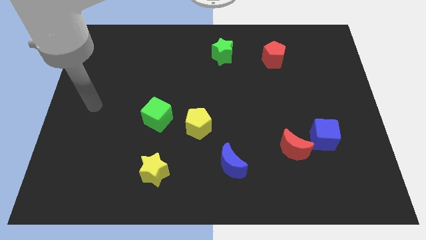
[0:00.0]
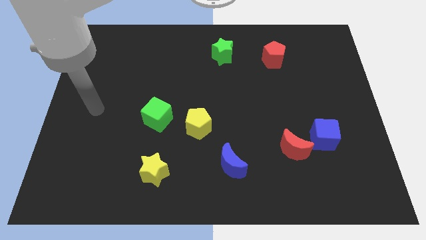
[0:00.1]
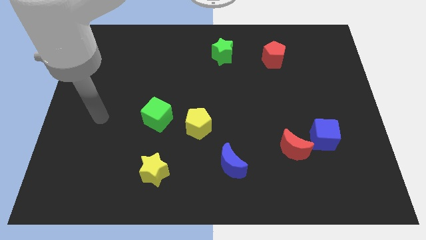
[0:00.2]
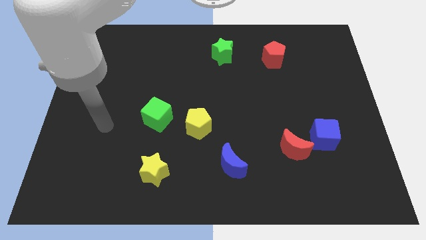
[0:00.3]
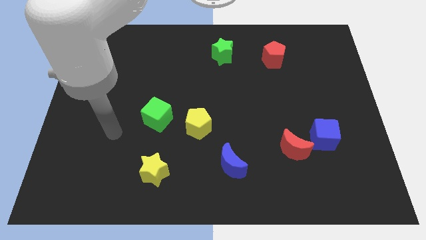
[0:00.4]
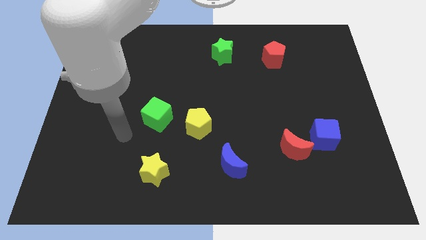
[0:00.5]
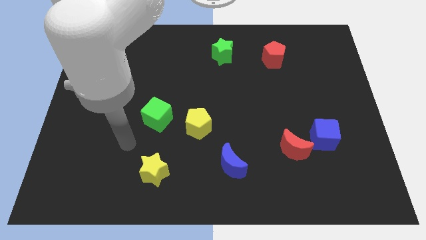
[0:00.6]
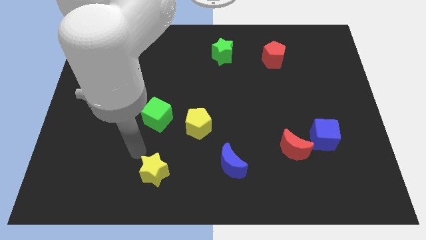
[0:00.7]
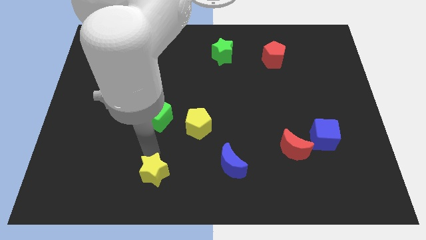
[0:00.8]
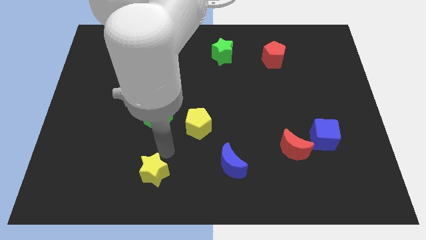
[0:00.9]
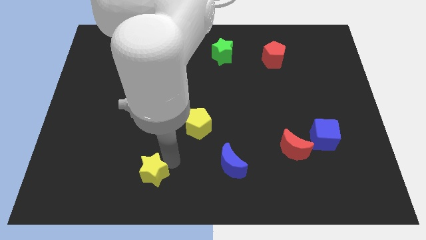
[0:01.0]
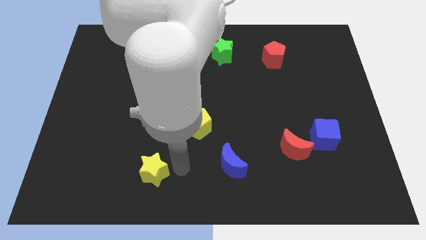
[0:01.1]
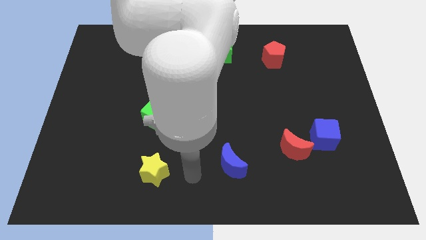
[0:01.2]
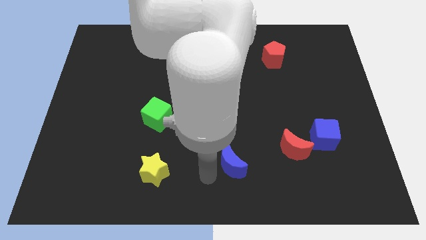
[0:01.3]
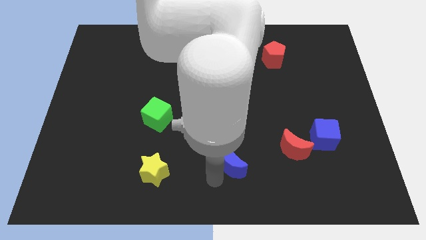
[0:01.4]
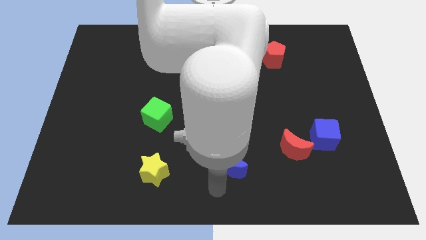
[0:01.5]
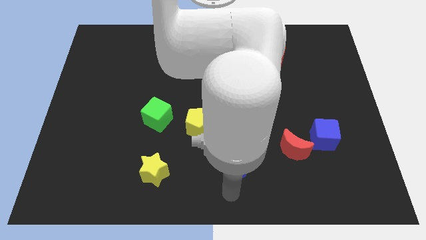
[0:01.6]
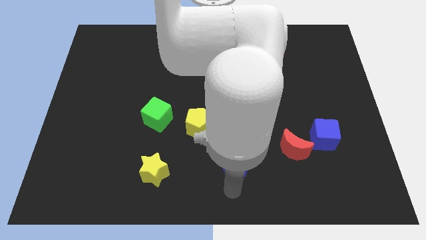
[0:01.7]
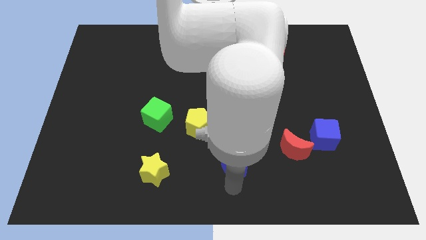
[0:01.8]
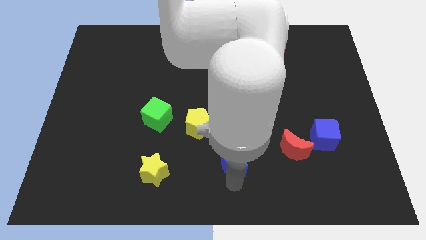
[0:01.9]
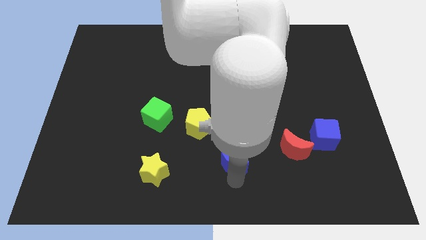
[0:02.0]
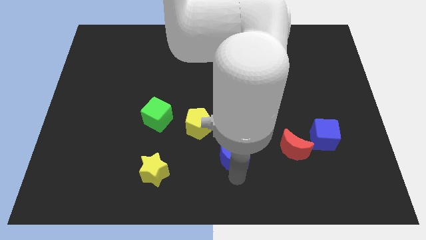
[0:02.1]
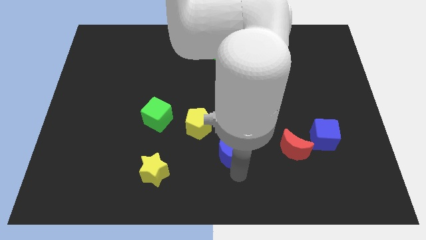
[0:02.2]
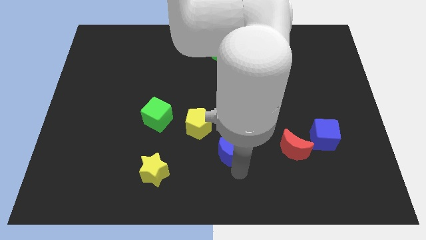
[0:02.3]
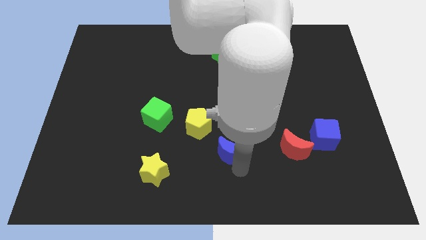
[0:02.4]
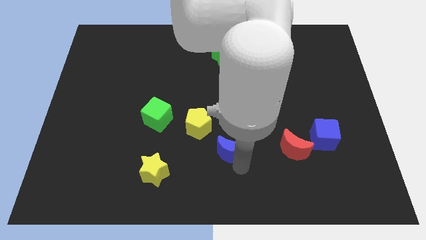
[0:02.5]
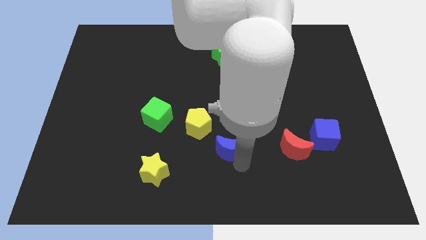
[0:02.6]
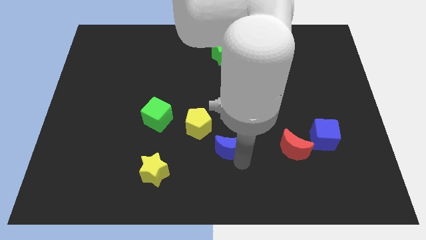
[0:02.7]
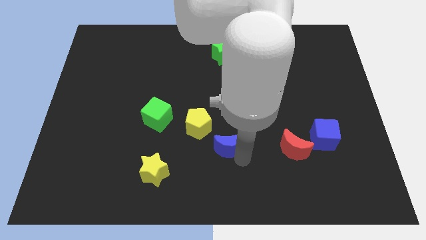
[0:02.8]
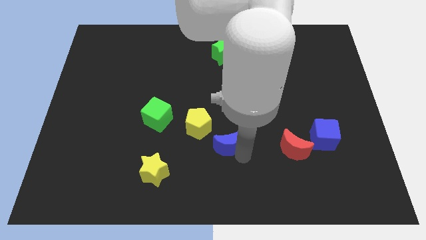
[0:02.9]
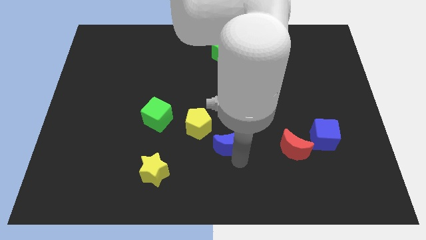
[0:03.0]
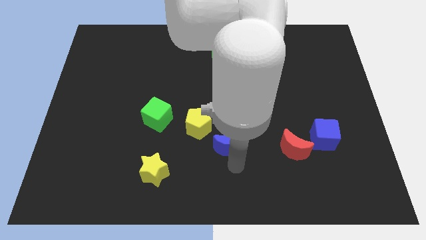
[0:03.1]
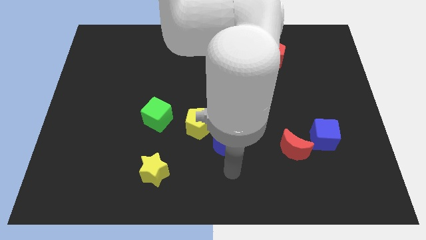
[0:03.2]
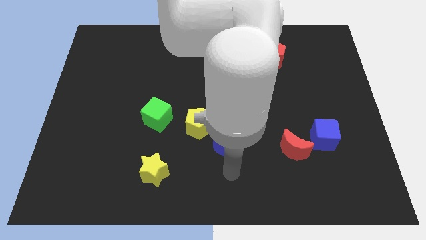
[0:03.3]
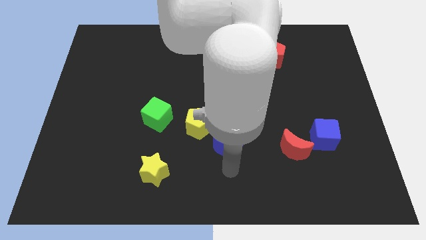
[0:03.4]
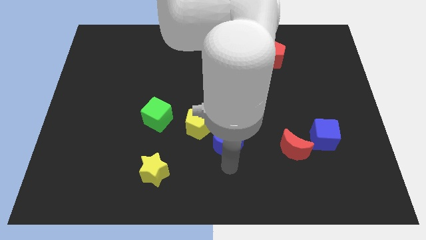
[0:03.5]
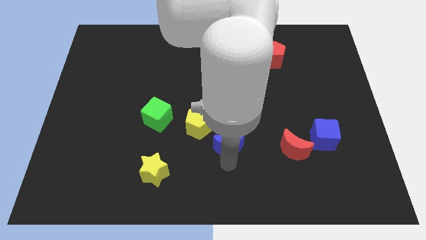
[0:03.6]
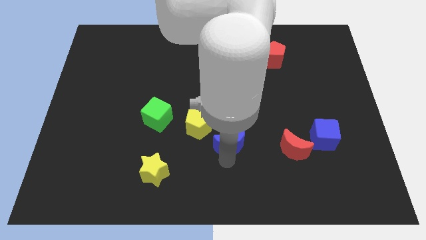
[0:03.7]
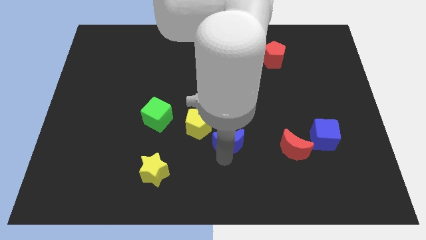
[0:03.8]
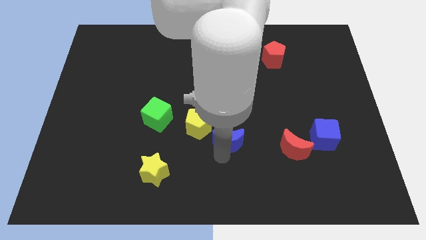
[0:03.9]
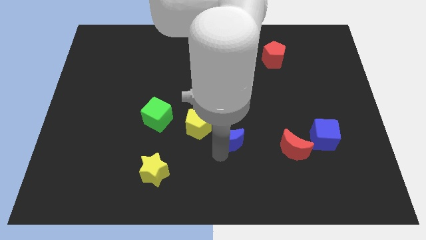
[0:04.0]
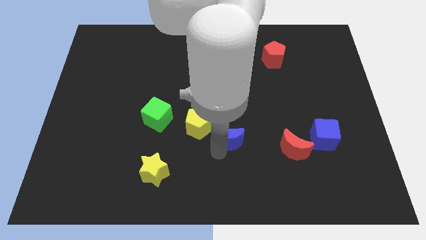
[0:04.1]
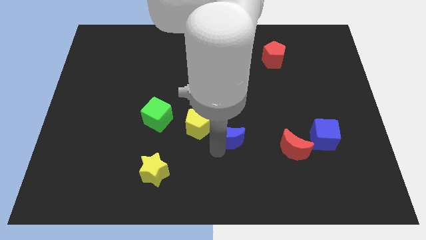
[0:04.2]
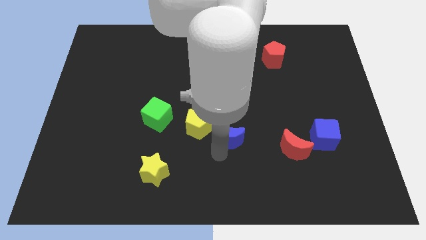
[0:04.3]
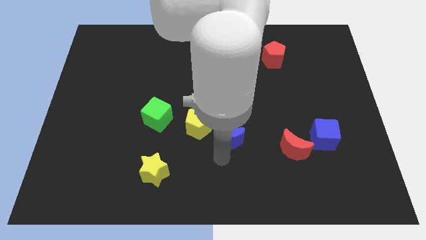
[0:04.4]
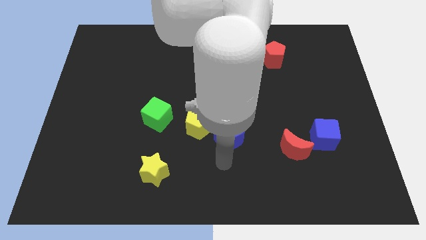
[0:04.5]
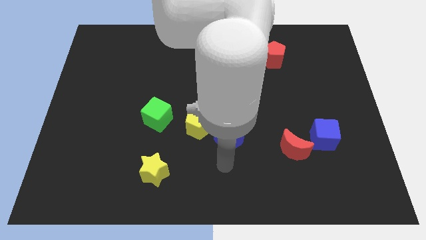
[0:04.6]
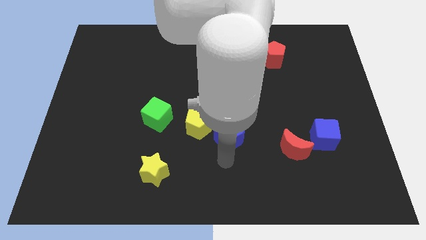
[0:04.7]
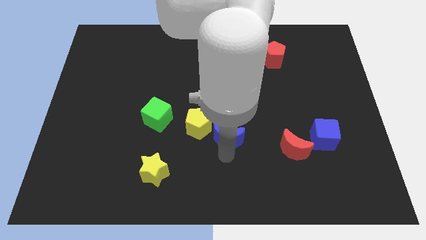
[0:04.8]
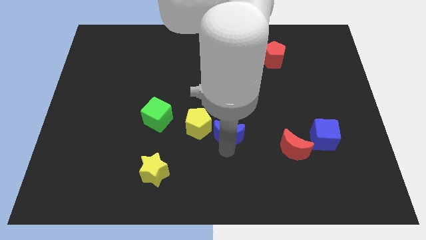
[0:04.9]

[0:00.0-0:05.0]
slide the blue moon a bit up

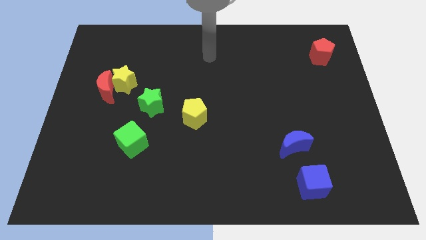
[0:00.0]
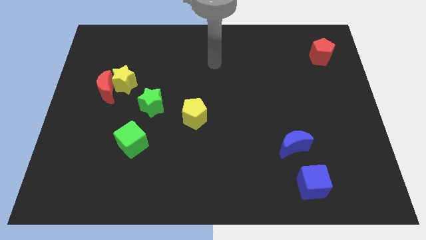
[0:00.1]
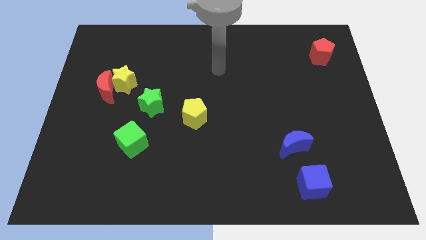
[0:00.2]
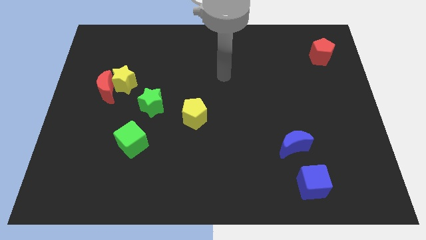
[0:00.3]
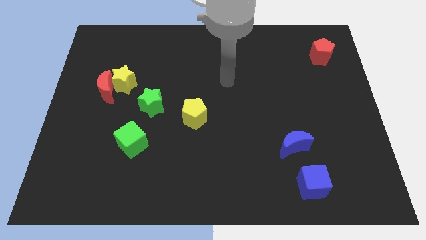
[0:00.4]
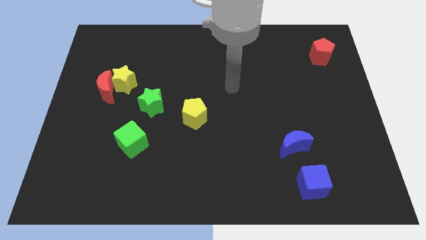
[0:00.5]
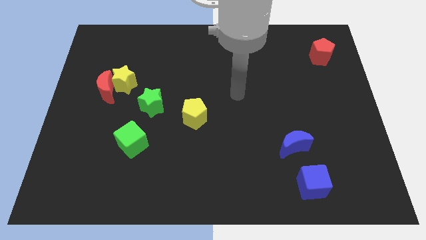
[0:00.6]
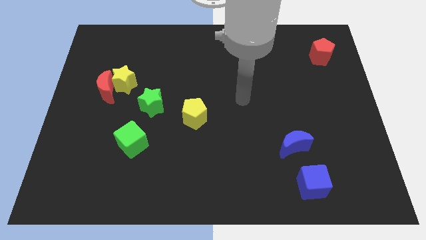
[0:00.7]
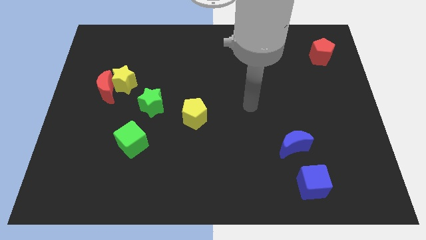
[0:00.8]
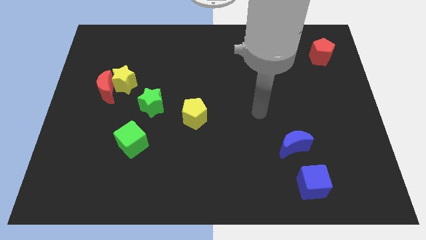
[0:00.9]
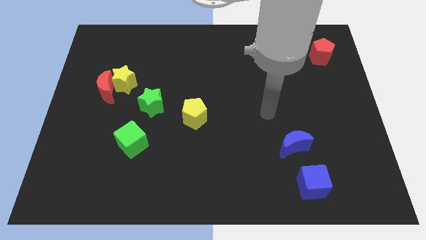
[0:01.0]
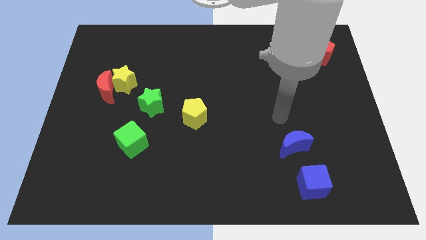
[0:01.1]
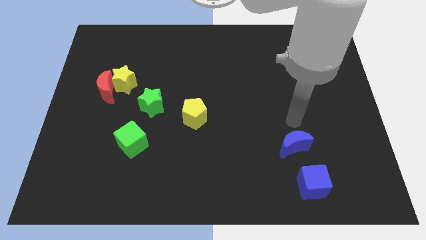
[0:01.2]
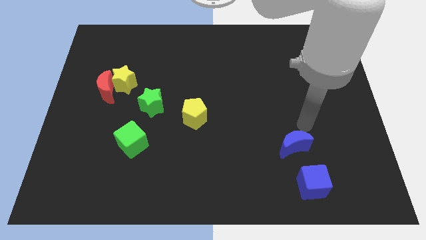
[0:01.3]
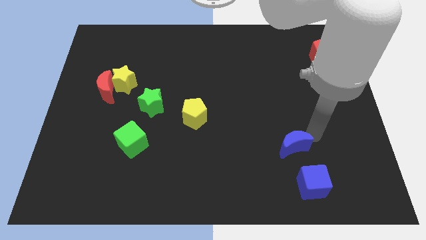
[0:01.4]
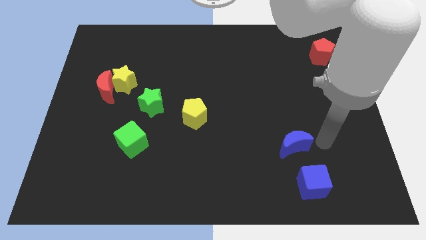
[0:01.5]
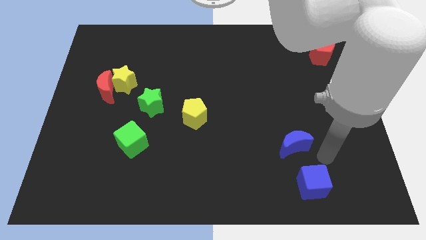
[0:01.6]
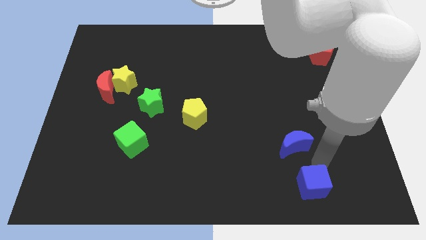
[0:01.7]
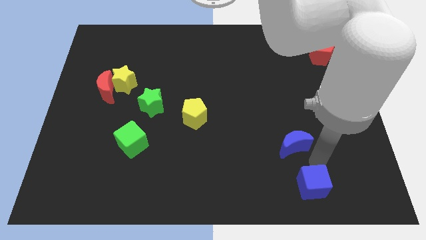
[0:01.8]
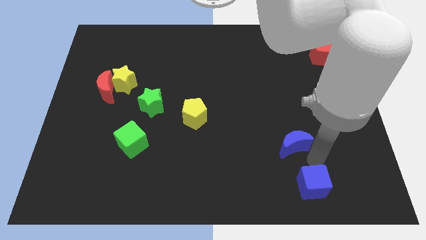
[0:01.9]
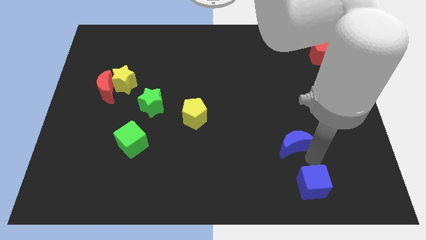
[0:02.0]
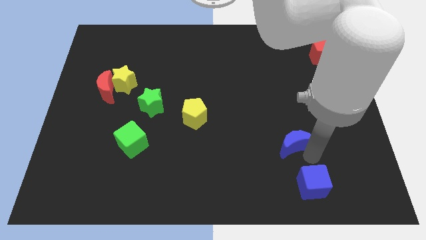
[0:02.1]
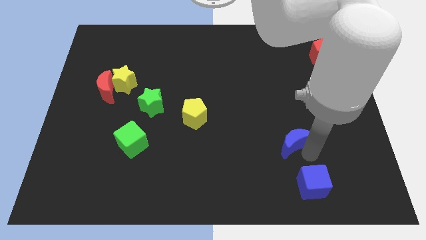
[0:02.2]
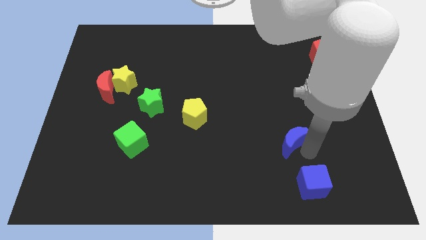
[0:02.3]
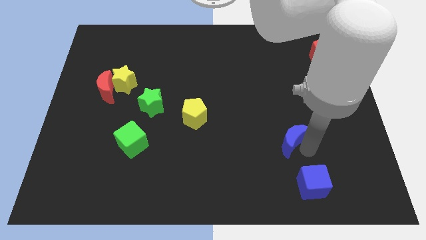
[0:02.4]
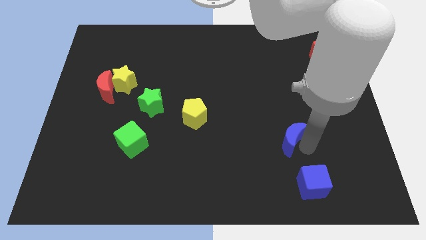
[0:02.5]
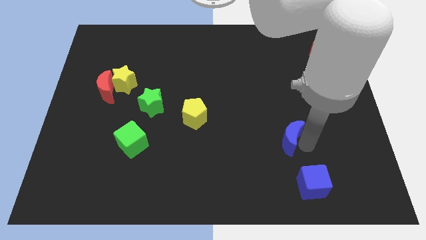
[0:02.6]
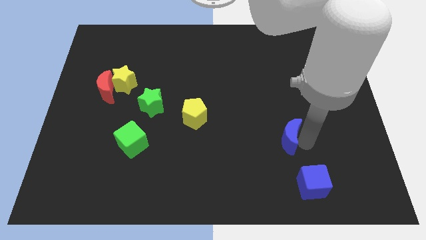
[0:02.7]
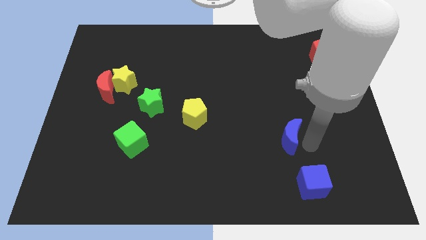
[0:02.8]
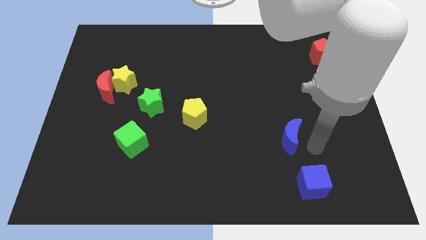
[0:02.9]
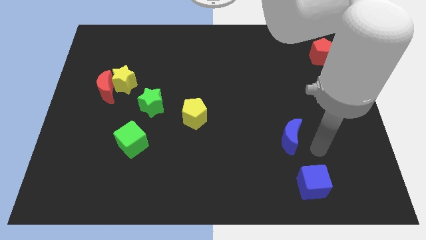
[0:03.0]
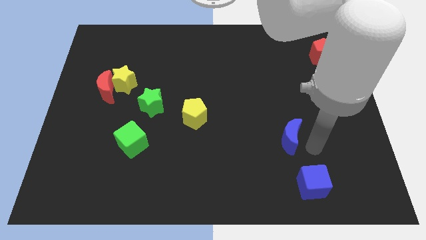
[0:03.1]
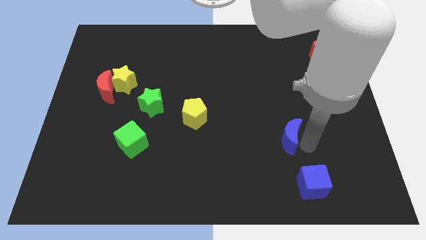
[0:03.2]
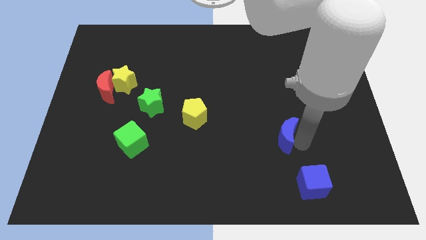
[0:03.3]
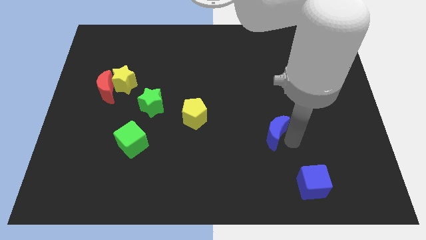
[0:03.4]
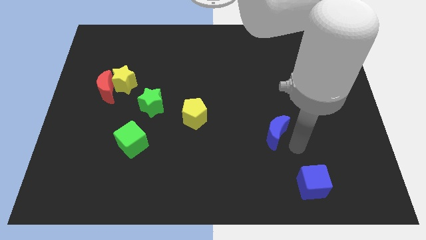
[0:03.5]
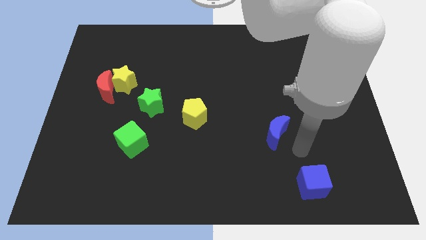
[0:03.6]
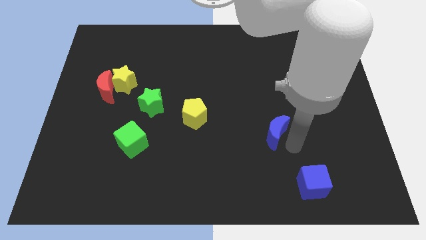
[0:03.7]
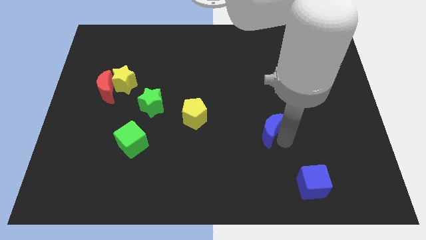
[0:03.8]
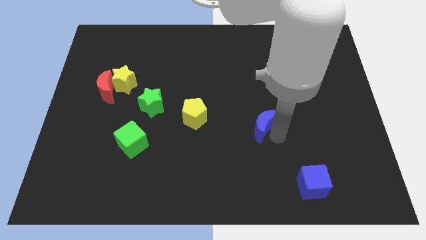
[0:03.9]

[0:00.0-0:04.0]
slightly push the blue moon up and left
